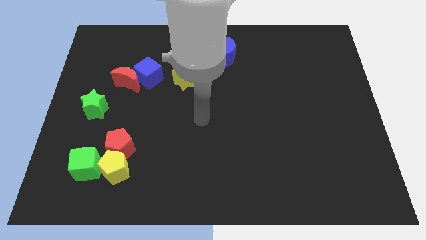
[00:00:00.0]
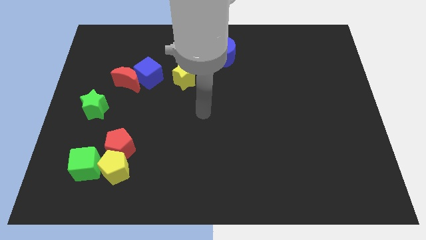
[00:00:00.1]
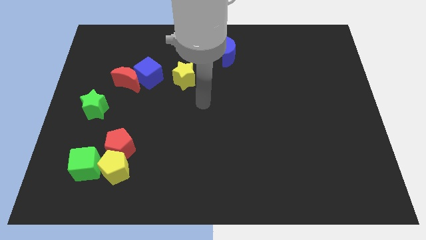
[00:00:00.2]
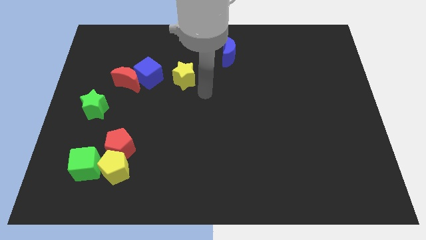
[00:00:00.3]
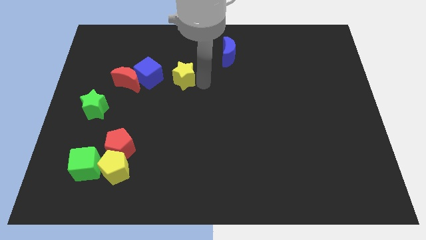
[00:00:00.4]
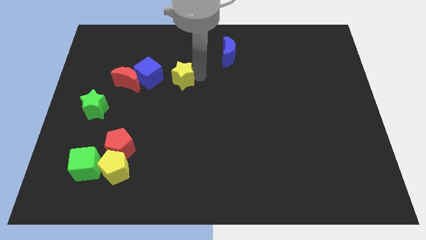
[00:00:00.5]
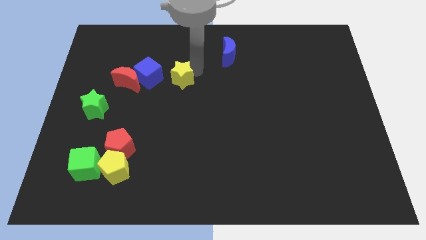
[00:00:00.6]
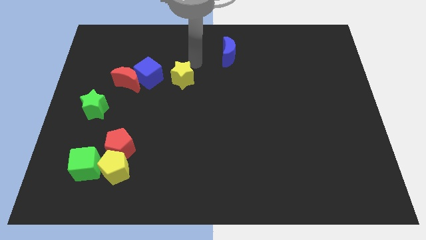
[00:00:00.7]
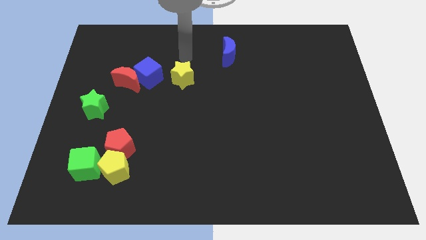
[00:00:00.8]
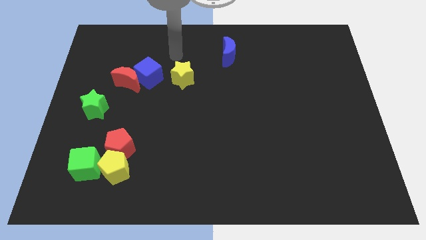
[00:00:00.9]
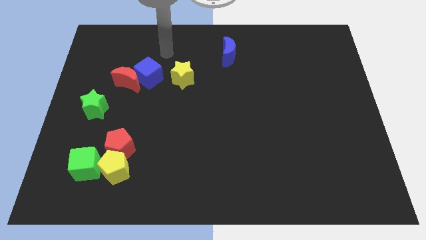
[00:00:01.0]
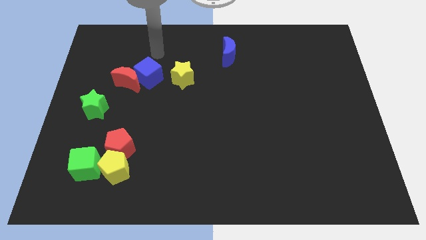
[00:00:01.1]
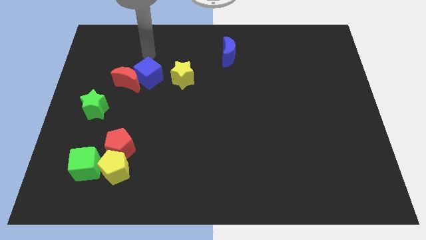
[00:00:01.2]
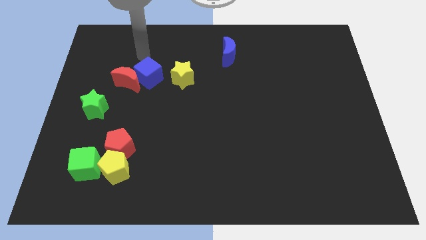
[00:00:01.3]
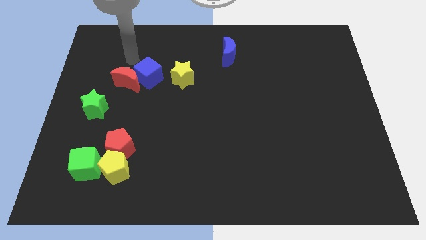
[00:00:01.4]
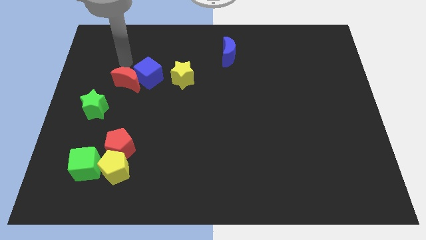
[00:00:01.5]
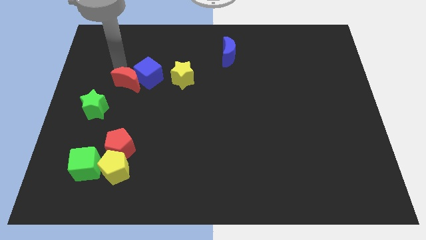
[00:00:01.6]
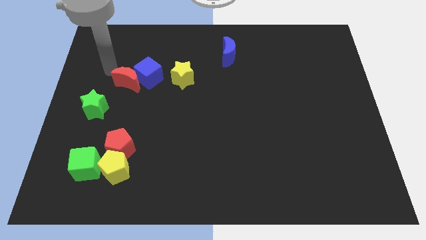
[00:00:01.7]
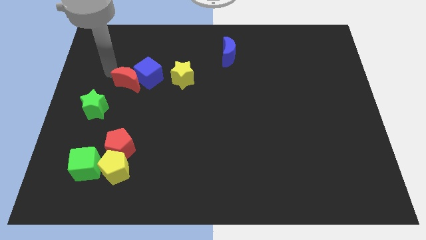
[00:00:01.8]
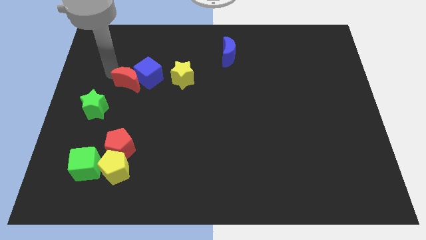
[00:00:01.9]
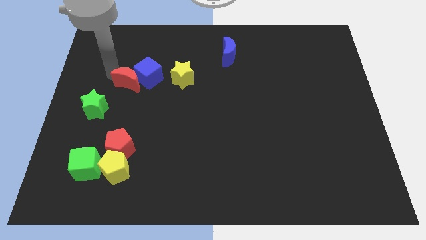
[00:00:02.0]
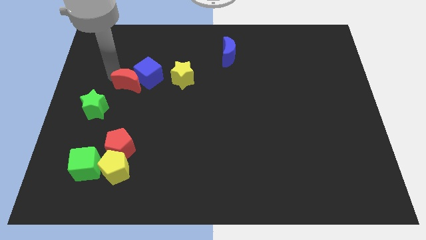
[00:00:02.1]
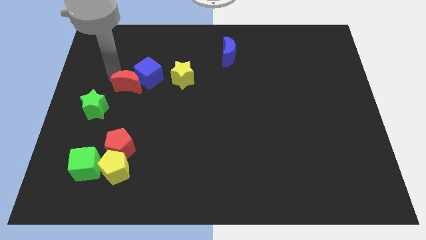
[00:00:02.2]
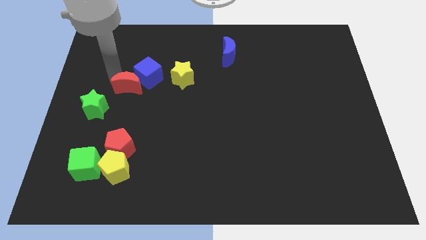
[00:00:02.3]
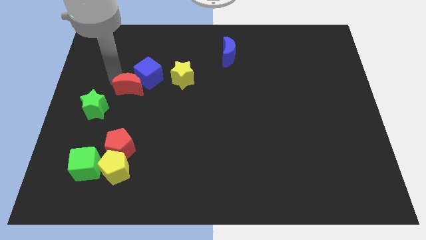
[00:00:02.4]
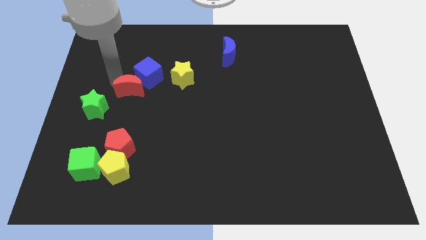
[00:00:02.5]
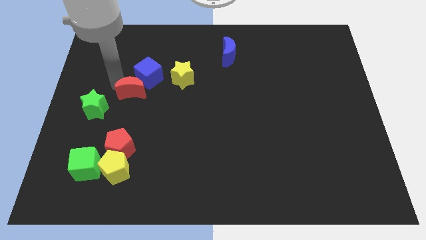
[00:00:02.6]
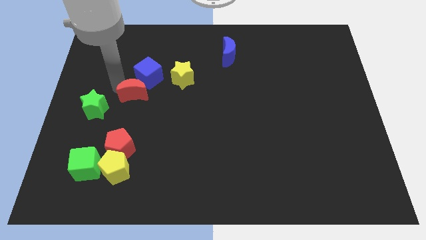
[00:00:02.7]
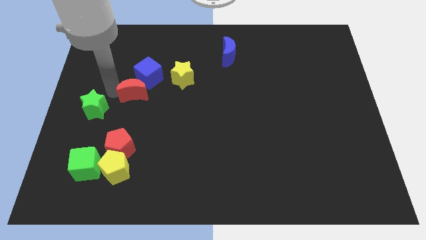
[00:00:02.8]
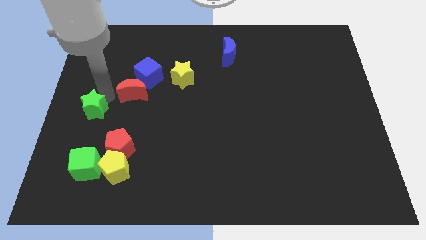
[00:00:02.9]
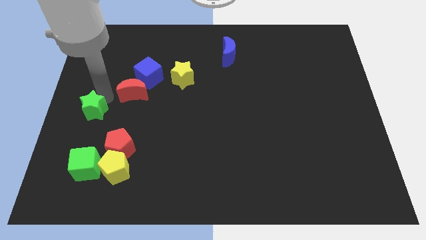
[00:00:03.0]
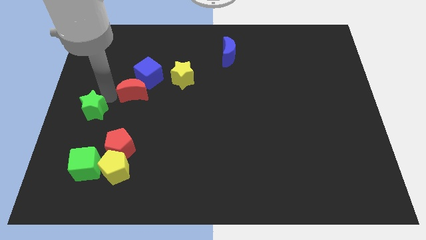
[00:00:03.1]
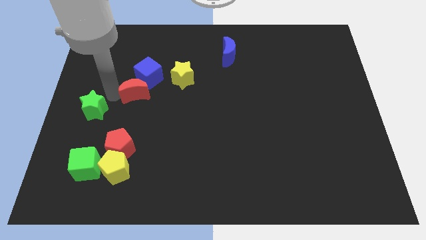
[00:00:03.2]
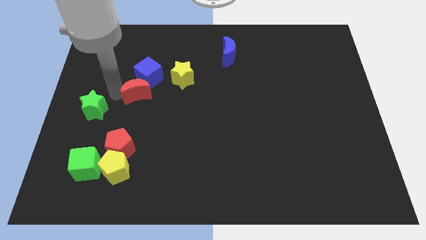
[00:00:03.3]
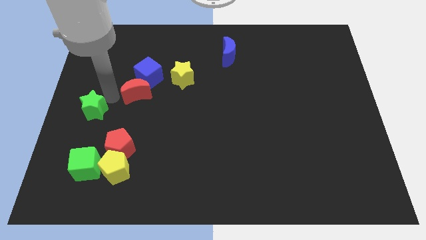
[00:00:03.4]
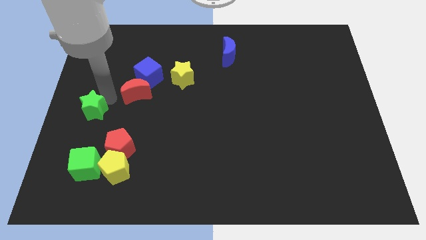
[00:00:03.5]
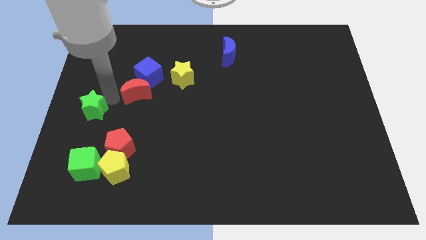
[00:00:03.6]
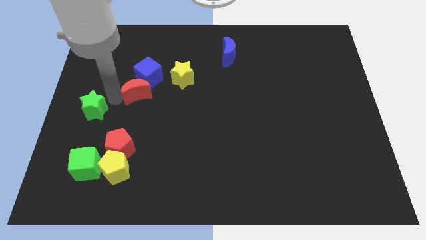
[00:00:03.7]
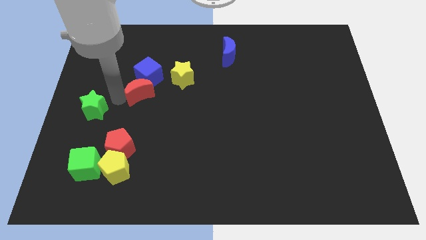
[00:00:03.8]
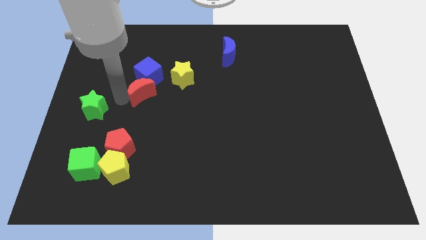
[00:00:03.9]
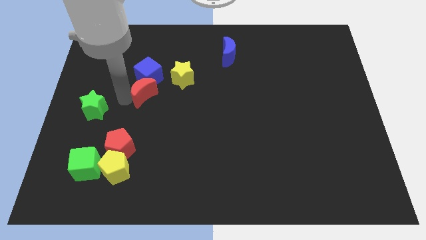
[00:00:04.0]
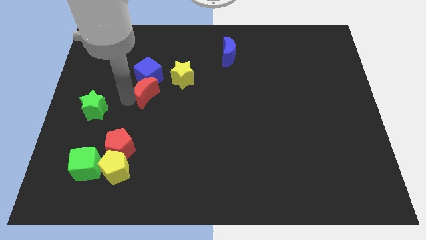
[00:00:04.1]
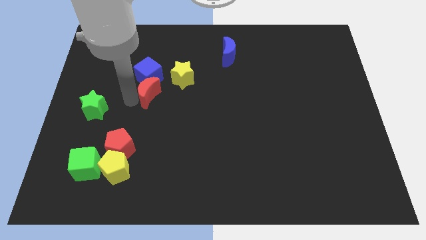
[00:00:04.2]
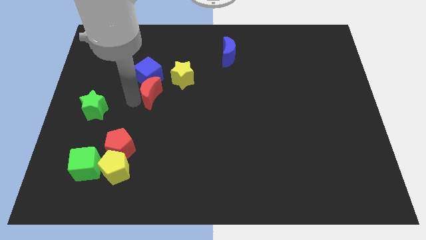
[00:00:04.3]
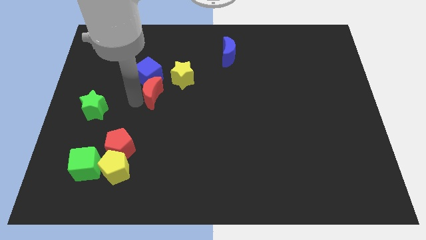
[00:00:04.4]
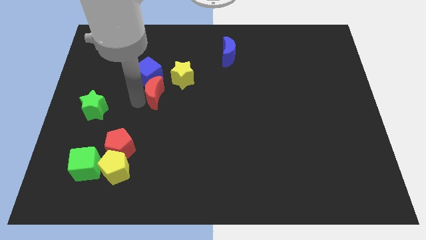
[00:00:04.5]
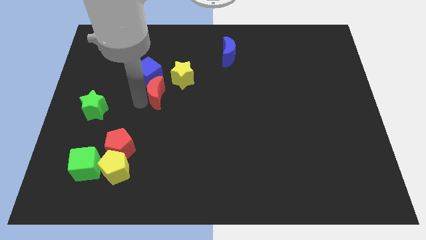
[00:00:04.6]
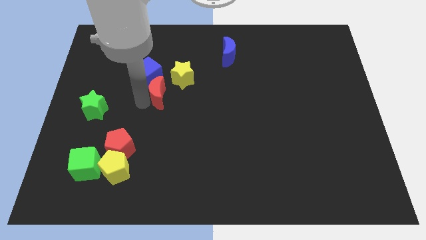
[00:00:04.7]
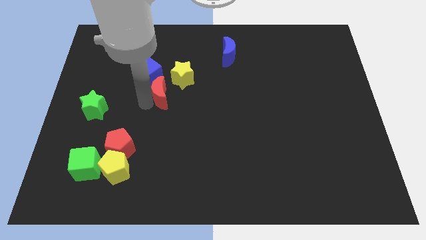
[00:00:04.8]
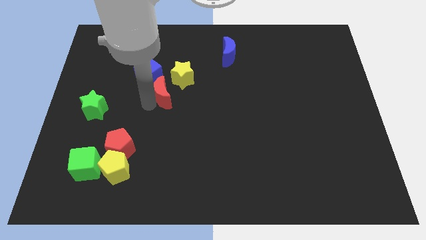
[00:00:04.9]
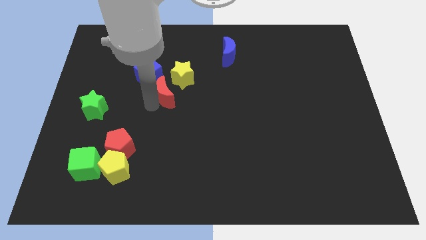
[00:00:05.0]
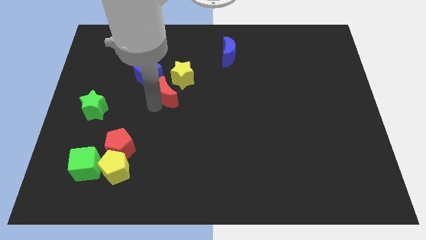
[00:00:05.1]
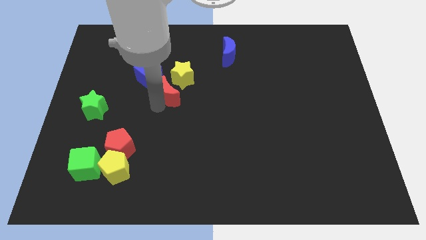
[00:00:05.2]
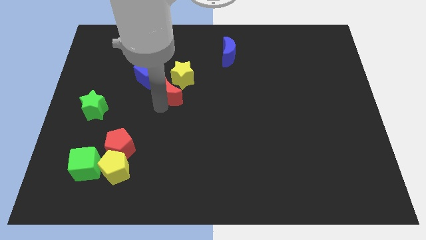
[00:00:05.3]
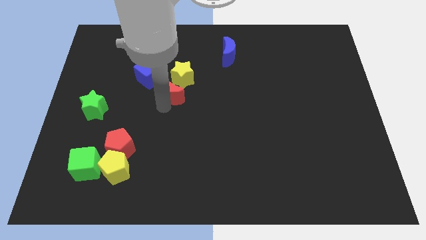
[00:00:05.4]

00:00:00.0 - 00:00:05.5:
push the red moon to the yellow star
